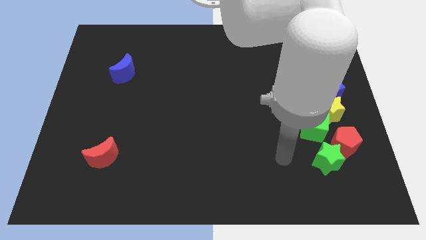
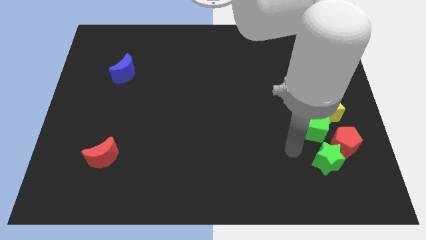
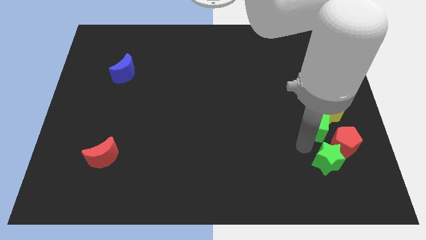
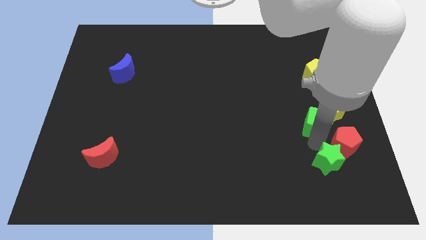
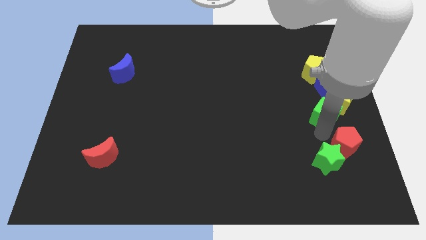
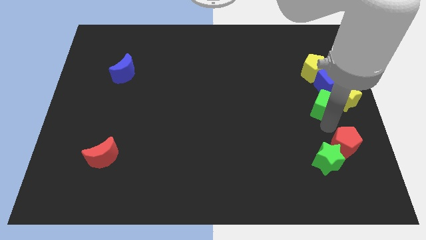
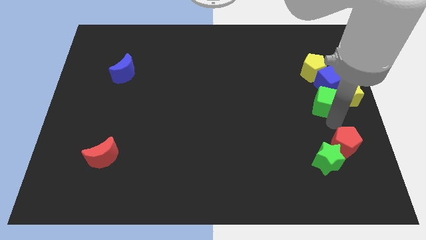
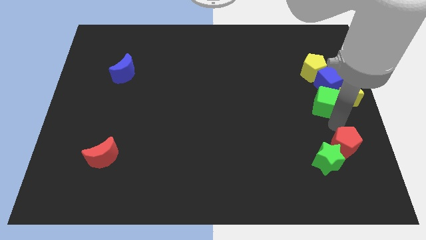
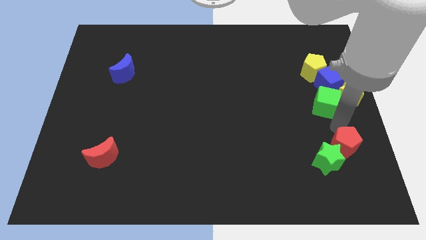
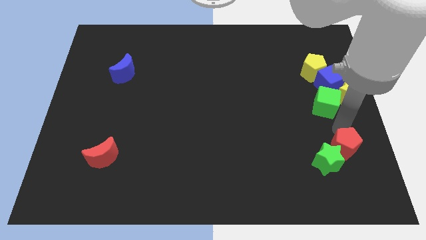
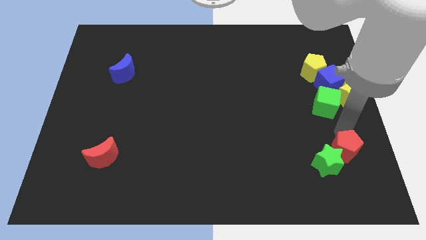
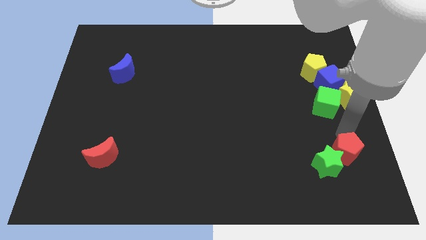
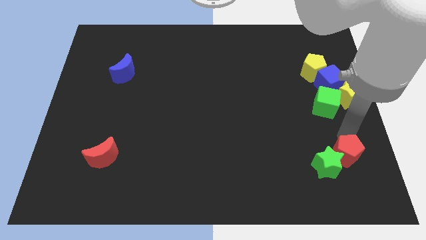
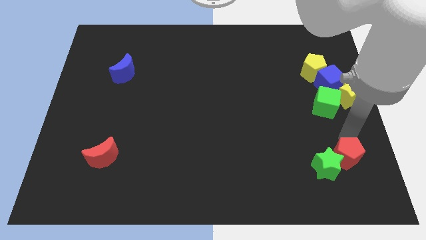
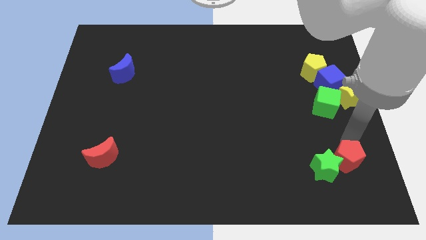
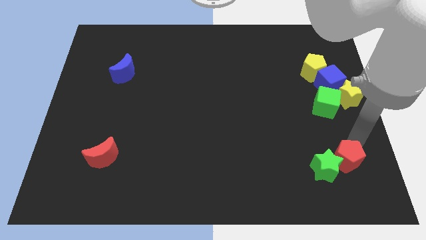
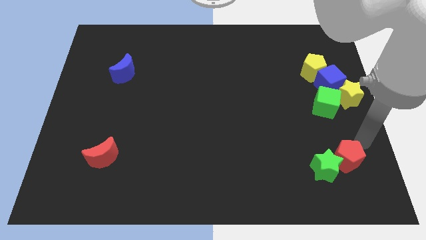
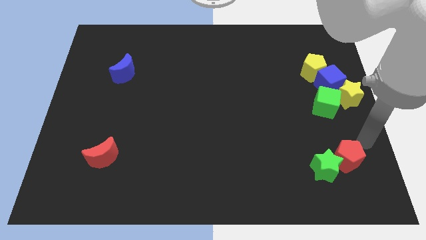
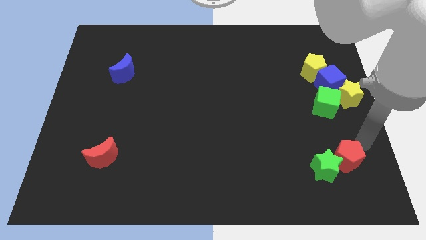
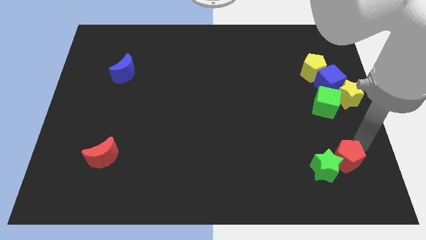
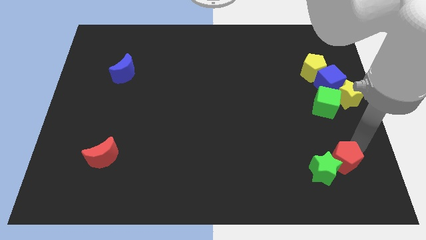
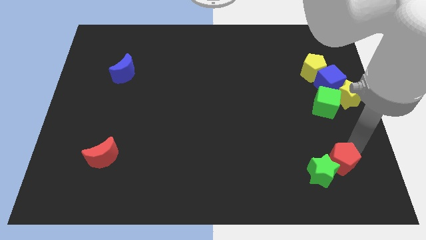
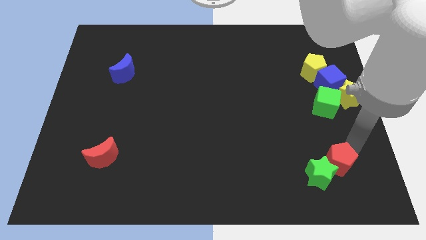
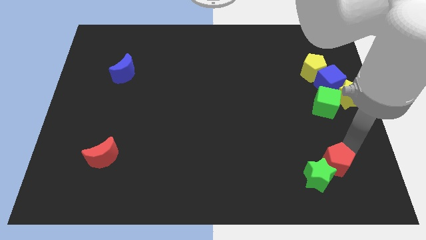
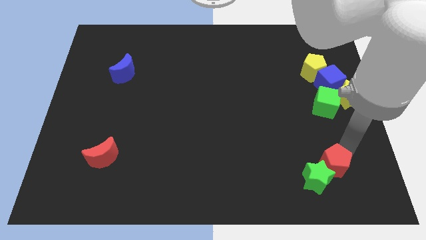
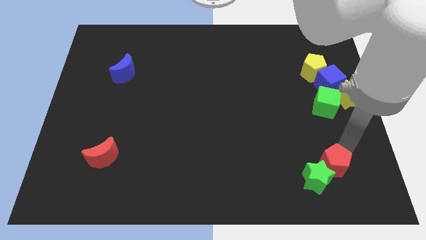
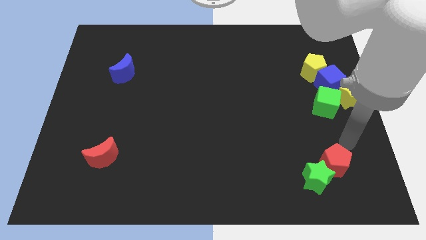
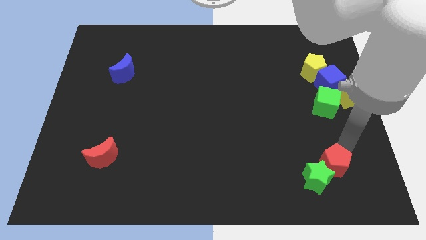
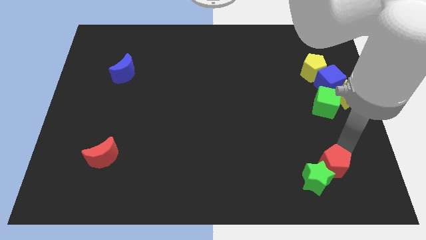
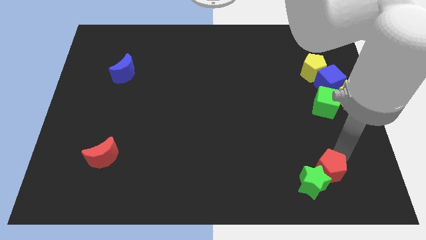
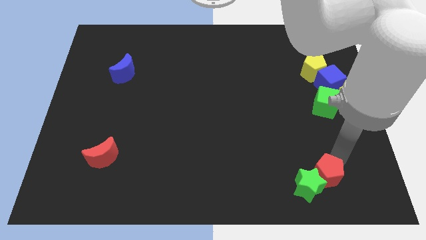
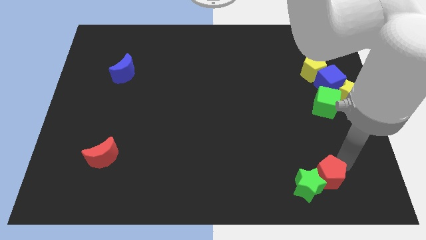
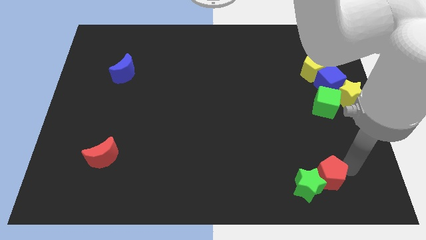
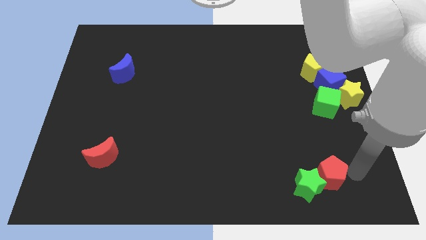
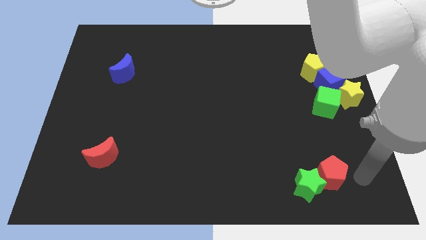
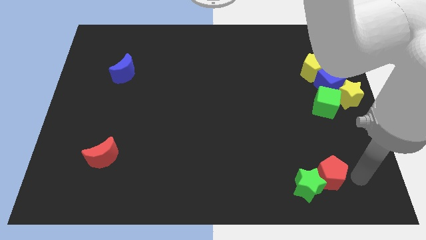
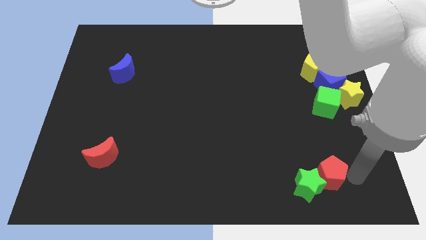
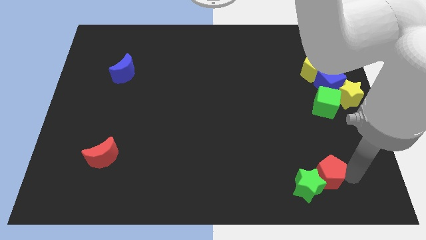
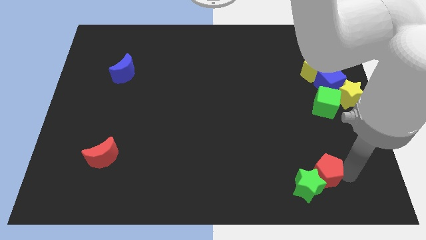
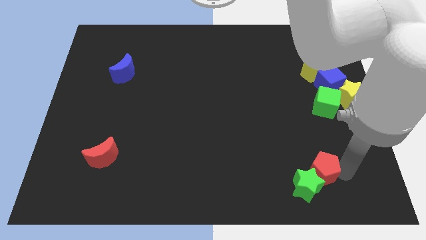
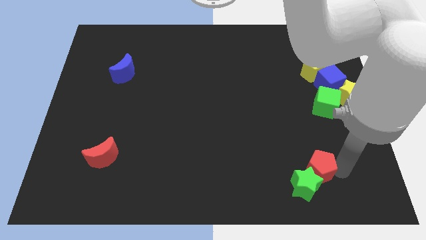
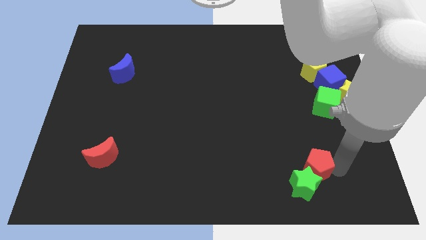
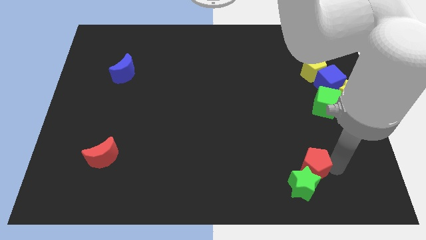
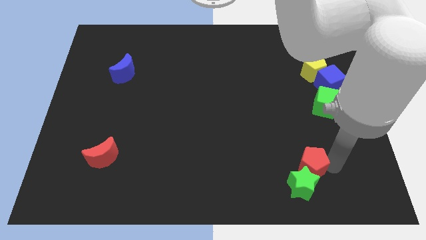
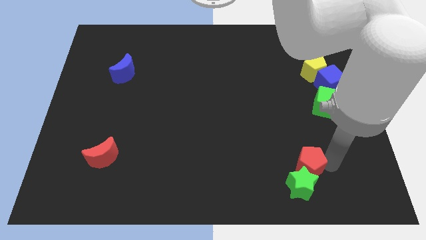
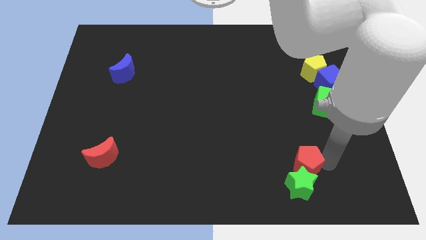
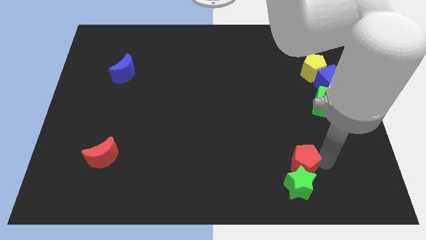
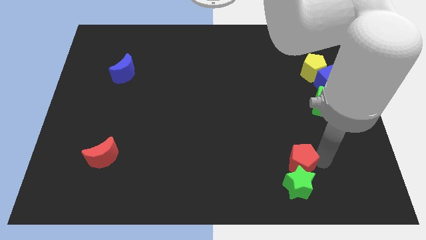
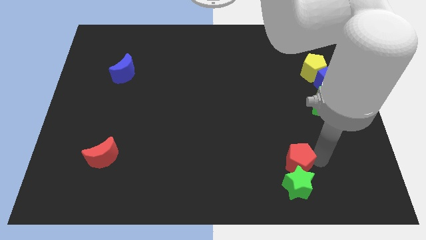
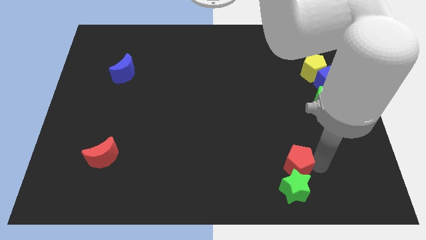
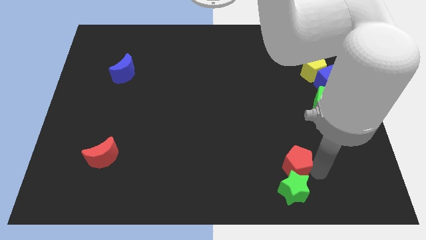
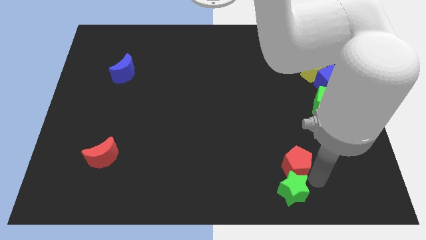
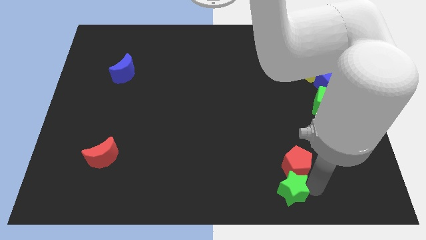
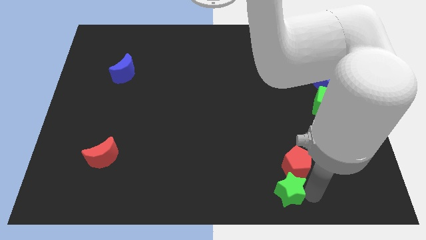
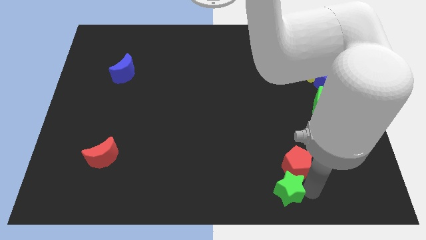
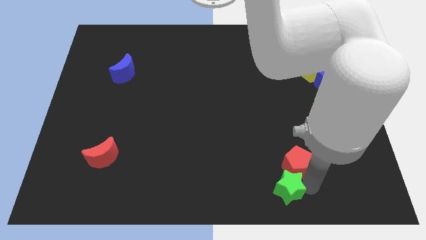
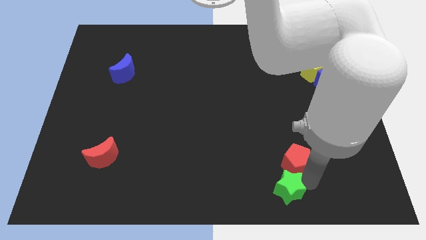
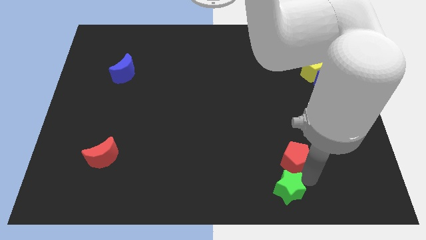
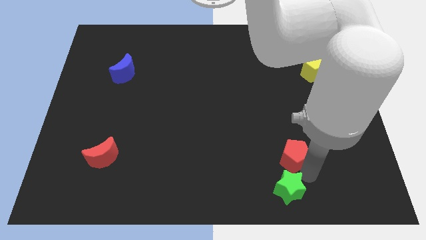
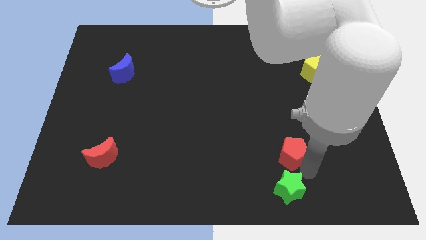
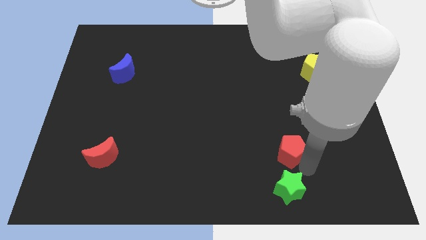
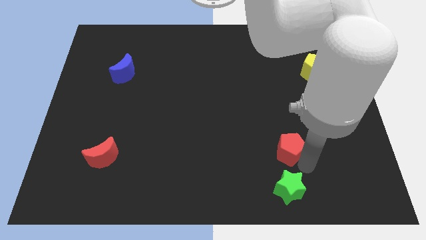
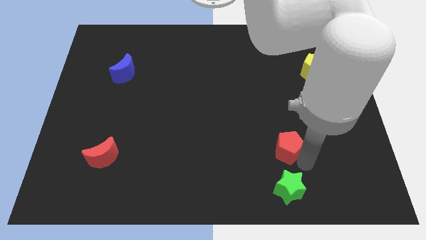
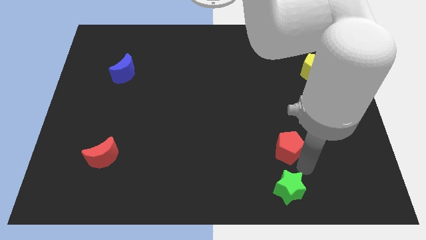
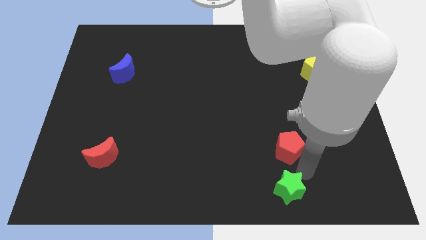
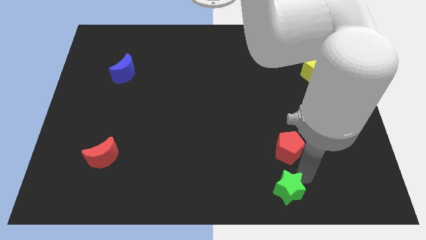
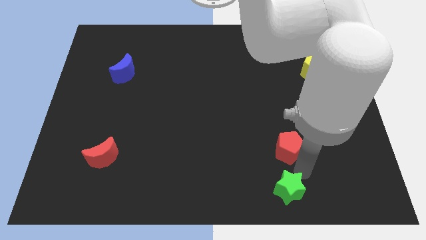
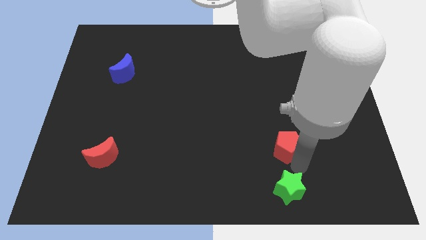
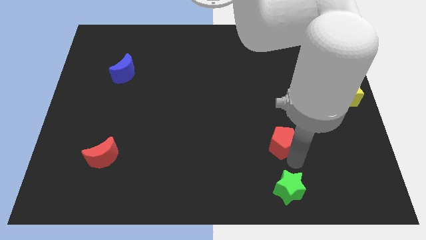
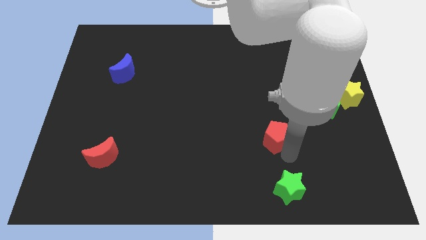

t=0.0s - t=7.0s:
slightly push the red pentagon diagonally up and left

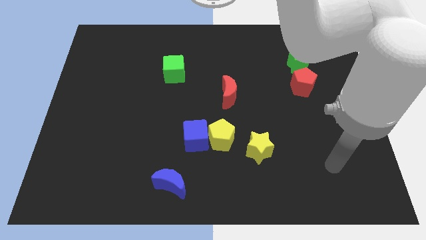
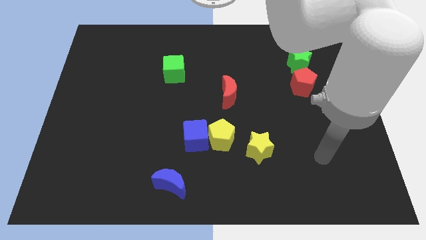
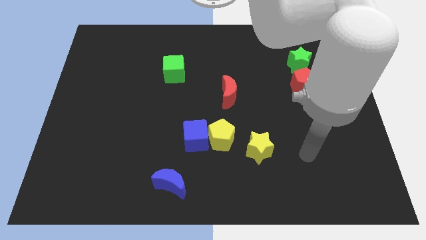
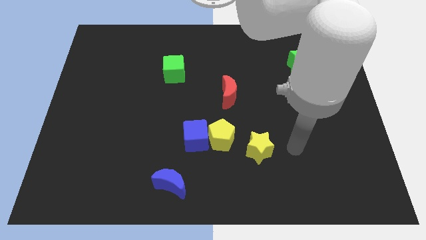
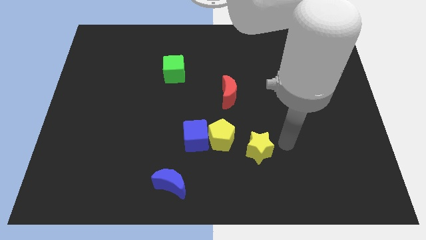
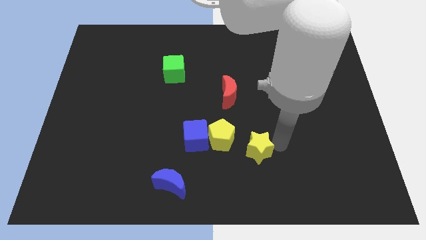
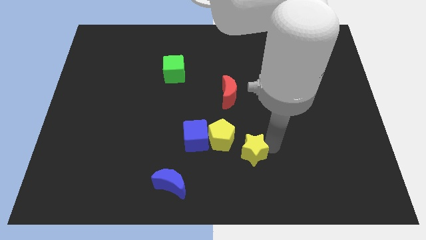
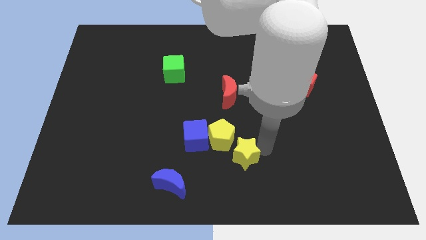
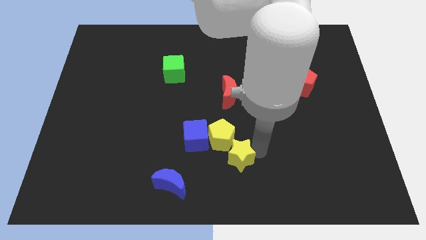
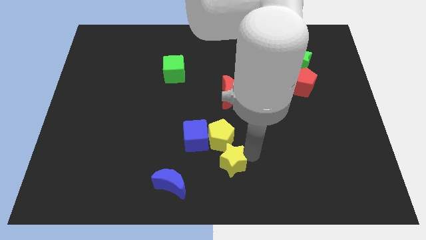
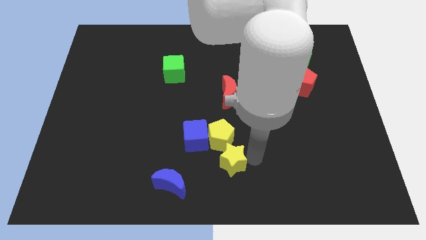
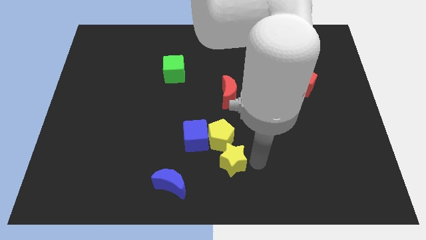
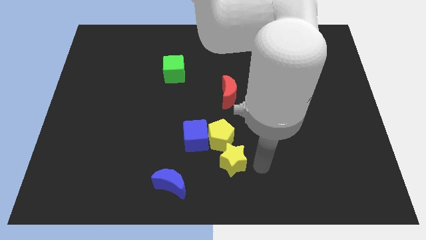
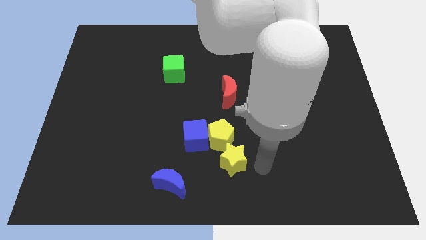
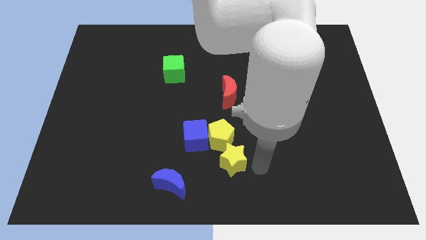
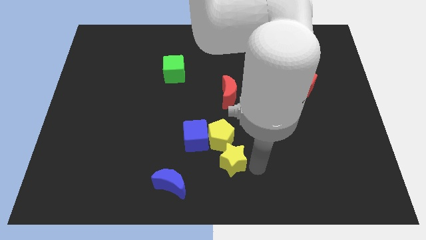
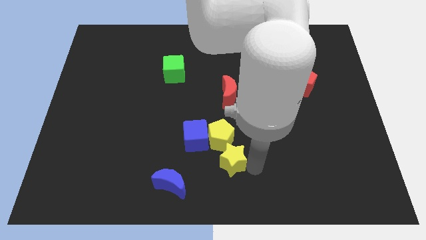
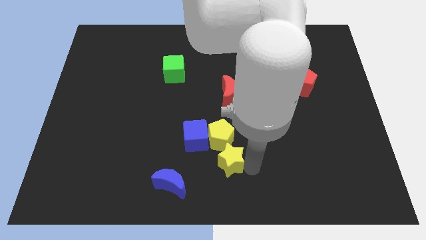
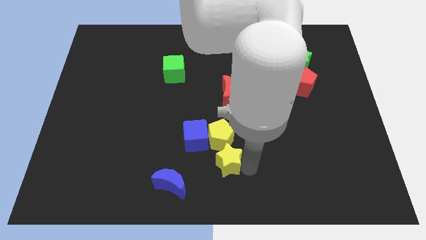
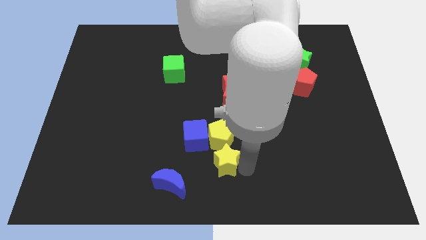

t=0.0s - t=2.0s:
push the yellow star to the left slightly
